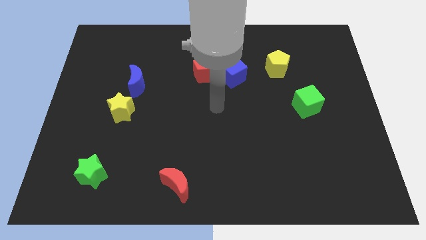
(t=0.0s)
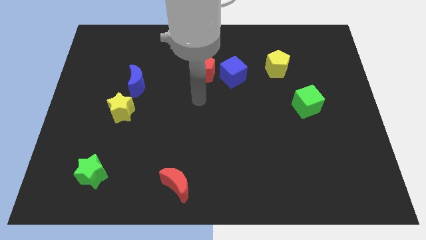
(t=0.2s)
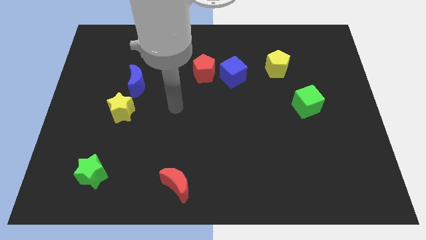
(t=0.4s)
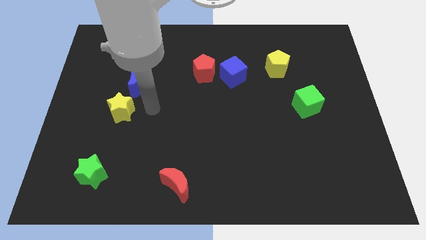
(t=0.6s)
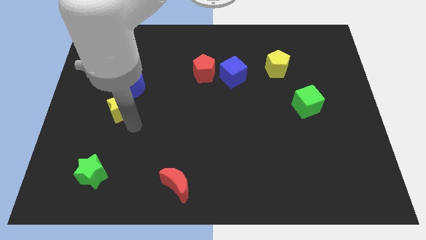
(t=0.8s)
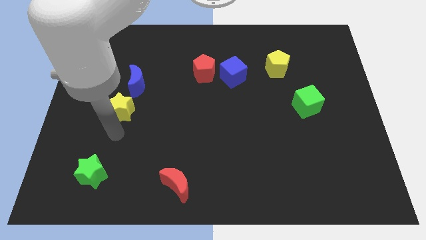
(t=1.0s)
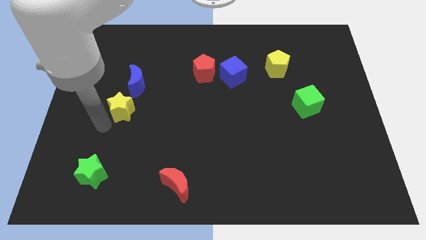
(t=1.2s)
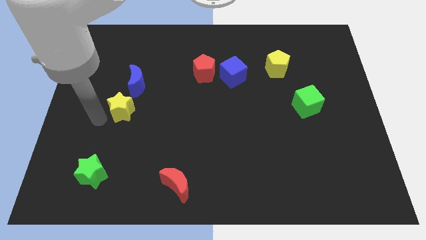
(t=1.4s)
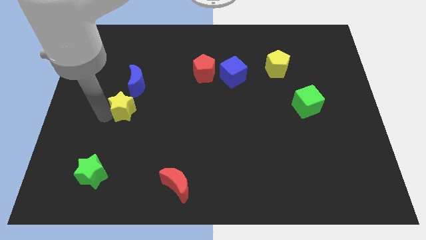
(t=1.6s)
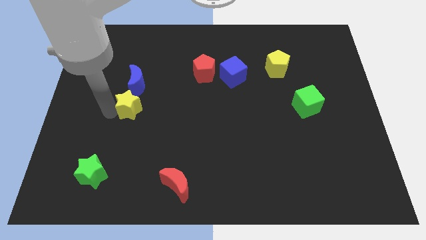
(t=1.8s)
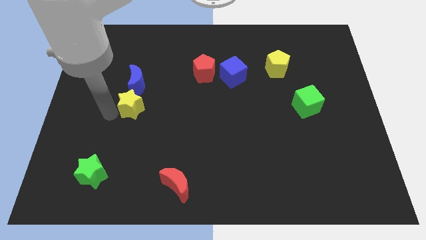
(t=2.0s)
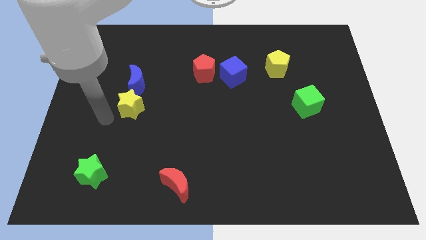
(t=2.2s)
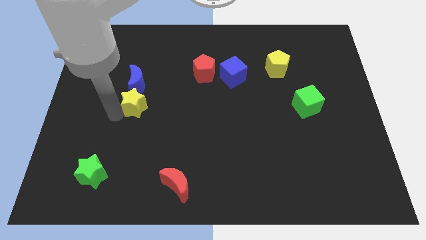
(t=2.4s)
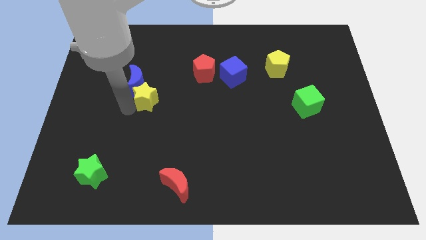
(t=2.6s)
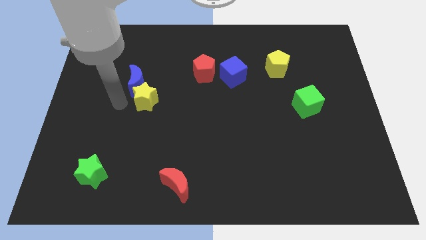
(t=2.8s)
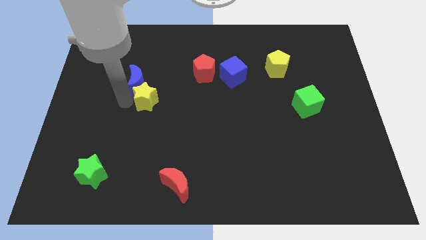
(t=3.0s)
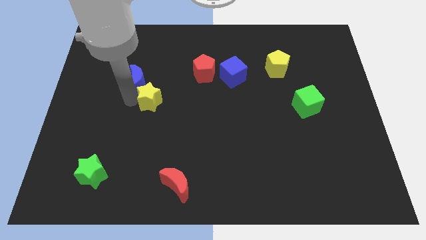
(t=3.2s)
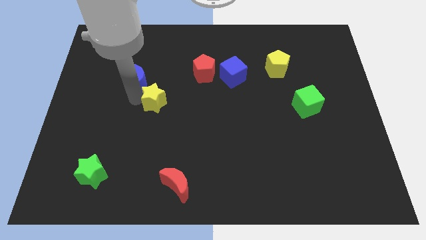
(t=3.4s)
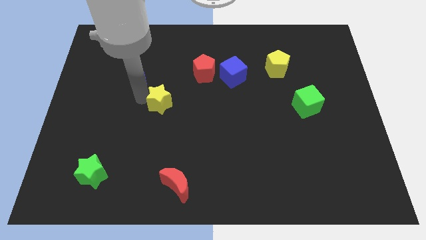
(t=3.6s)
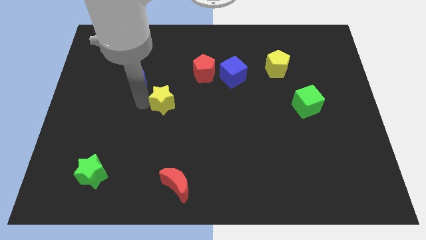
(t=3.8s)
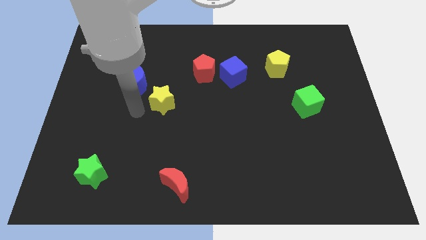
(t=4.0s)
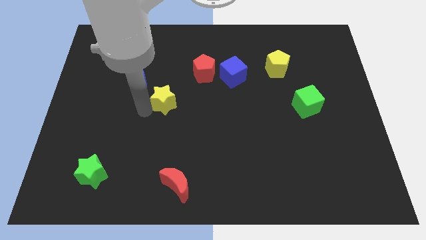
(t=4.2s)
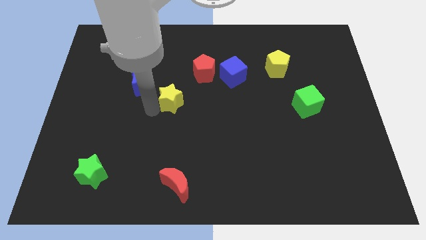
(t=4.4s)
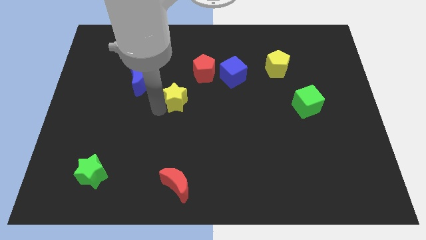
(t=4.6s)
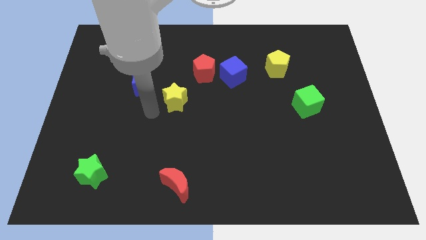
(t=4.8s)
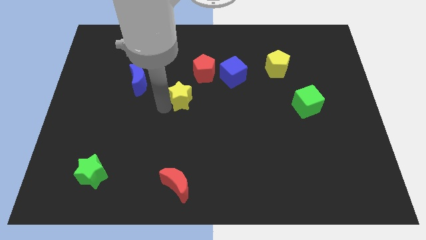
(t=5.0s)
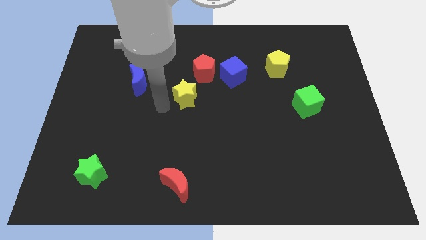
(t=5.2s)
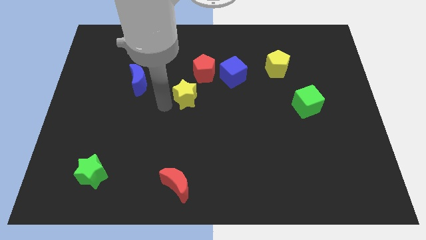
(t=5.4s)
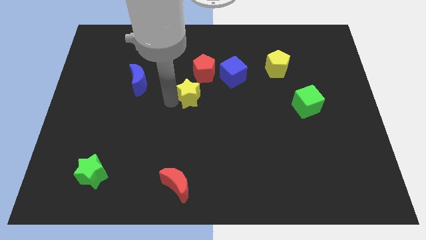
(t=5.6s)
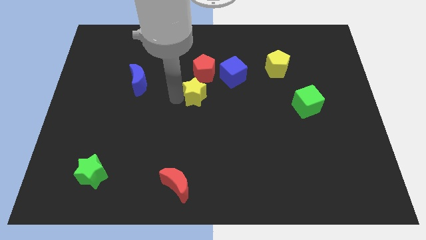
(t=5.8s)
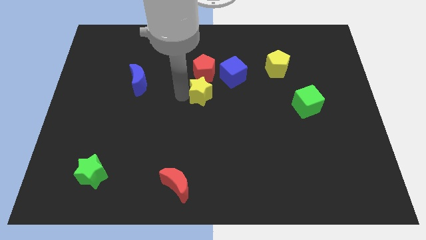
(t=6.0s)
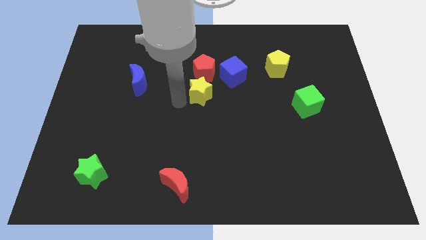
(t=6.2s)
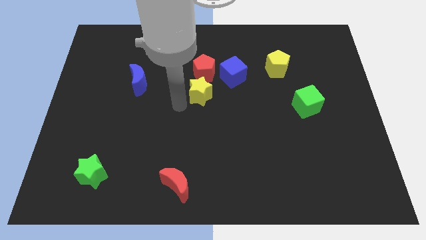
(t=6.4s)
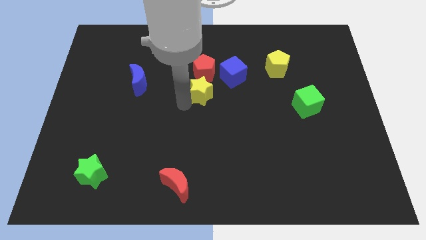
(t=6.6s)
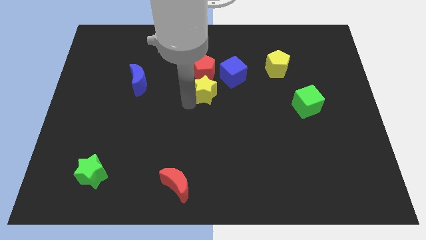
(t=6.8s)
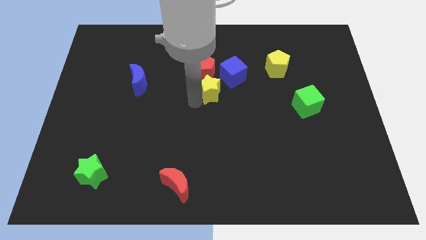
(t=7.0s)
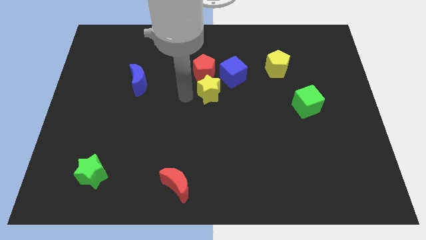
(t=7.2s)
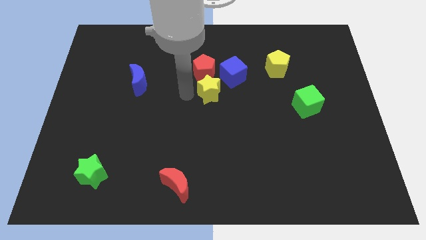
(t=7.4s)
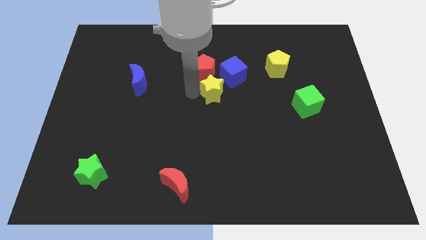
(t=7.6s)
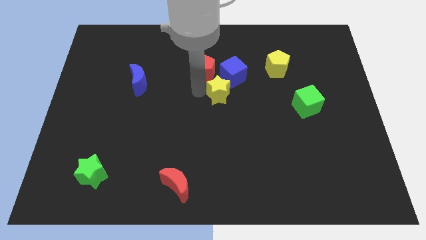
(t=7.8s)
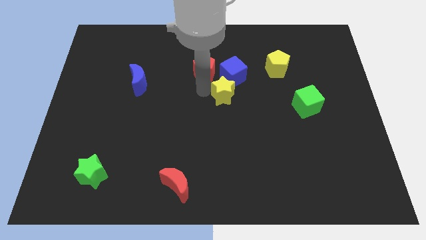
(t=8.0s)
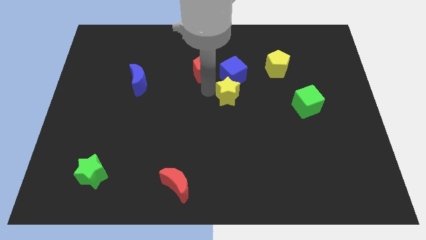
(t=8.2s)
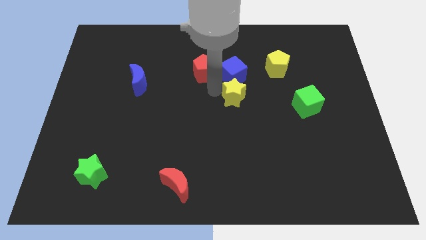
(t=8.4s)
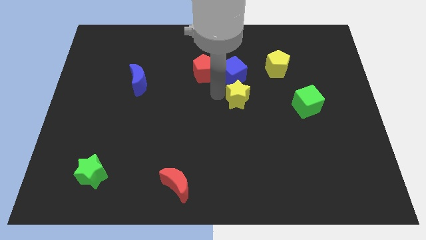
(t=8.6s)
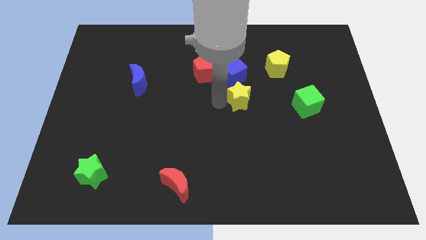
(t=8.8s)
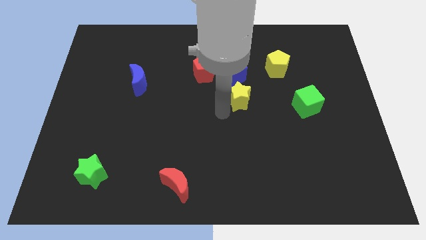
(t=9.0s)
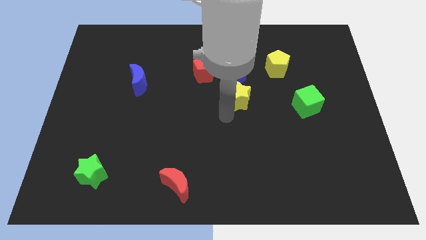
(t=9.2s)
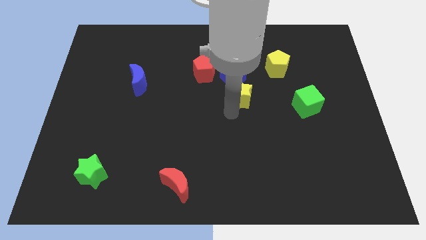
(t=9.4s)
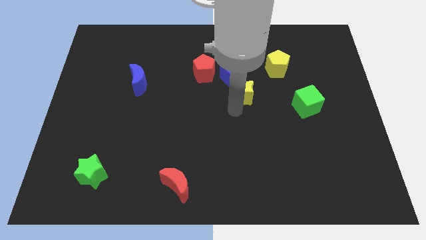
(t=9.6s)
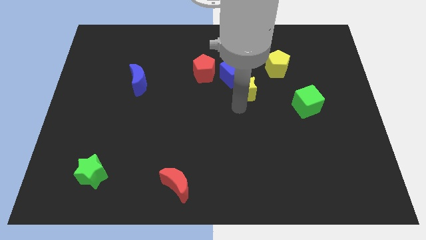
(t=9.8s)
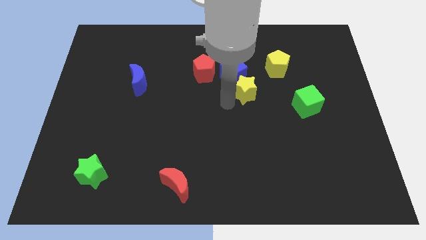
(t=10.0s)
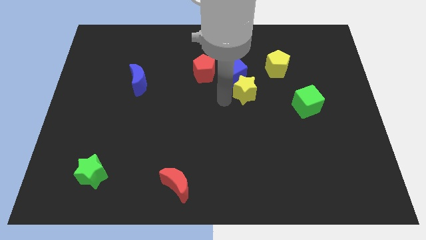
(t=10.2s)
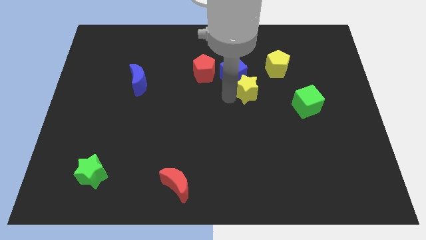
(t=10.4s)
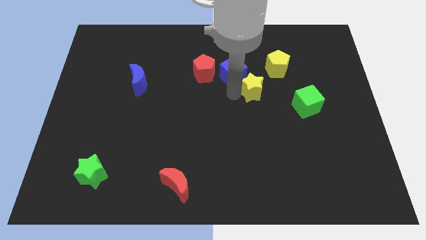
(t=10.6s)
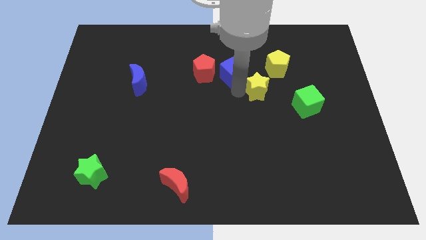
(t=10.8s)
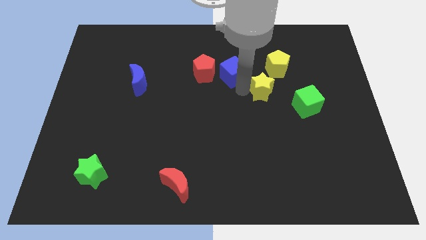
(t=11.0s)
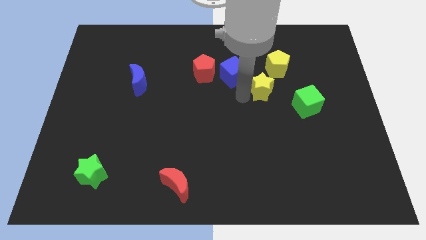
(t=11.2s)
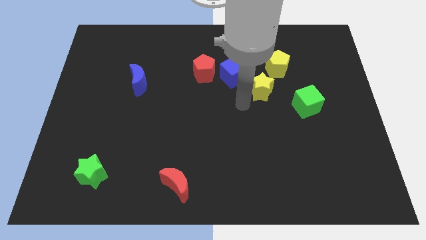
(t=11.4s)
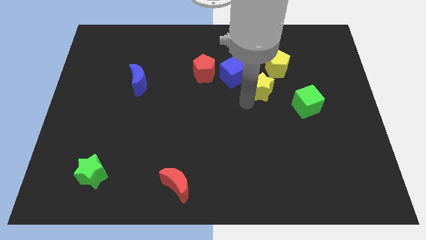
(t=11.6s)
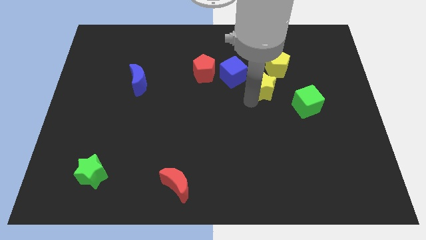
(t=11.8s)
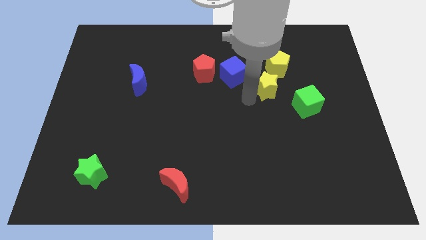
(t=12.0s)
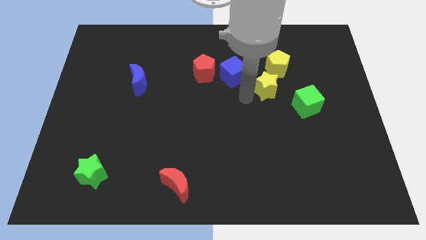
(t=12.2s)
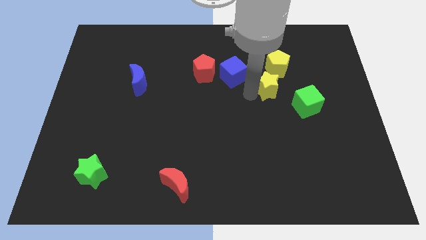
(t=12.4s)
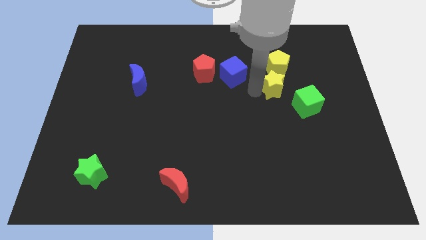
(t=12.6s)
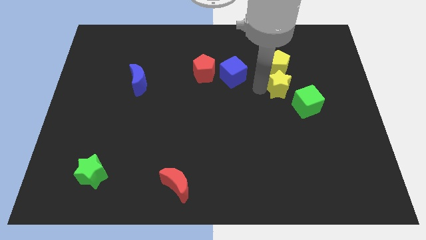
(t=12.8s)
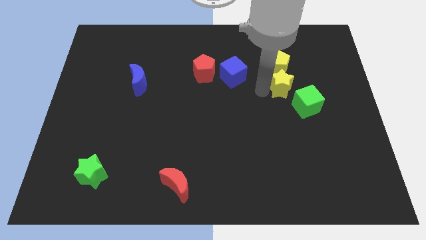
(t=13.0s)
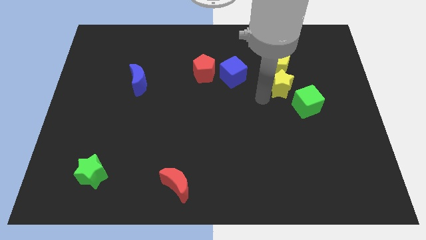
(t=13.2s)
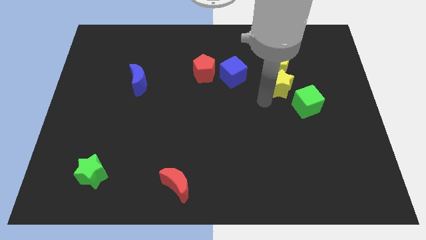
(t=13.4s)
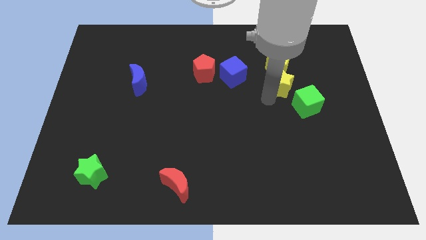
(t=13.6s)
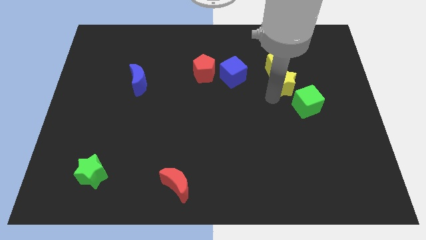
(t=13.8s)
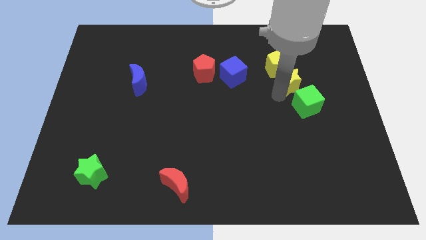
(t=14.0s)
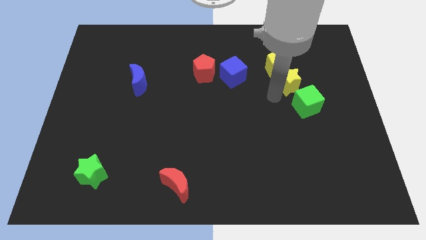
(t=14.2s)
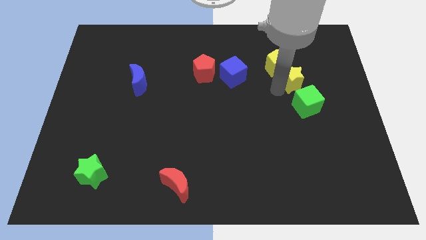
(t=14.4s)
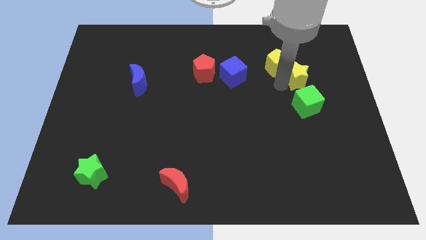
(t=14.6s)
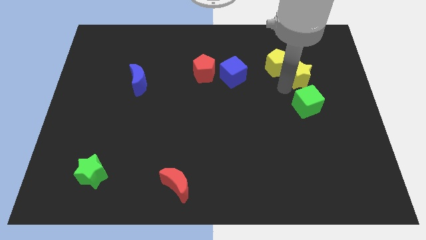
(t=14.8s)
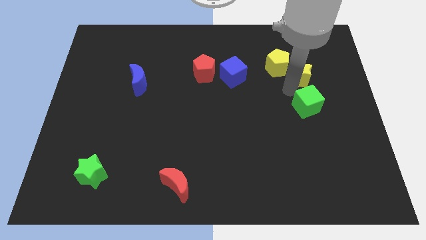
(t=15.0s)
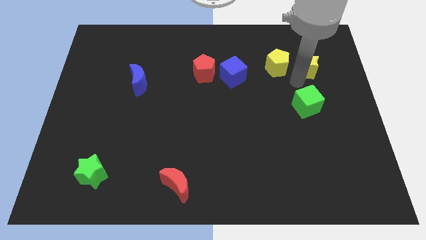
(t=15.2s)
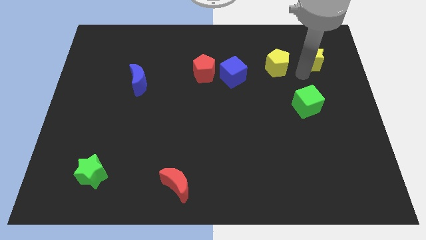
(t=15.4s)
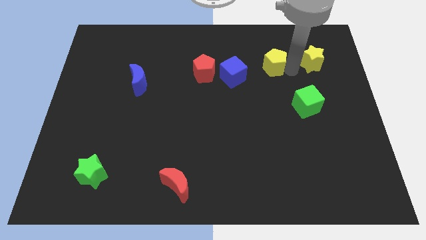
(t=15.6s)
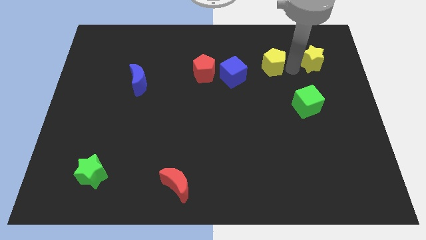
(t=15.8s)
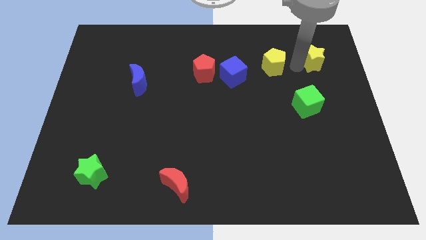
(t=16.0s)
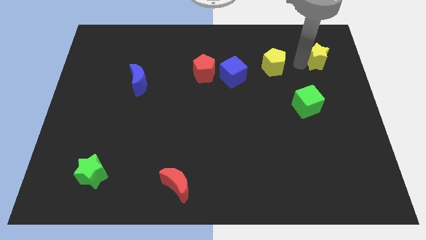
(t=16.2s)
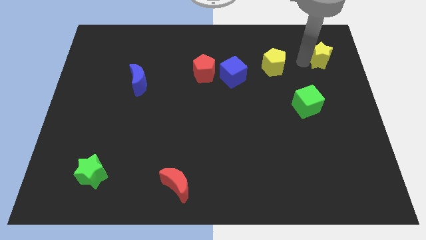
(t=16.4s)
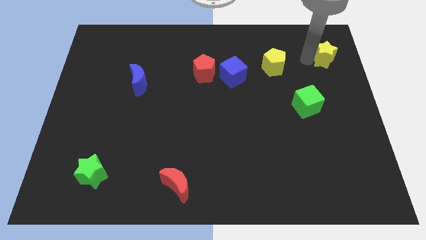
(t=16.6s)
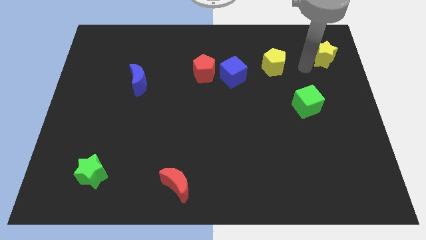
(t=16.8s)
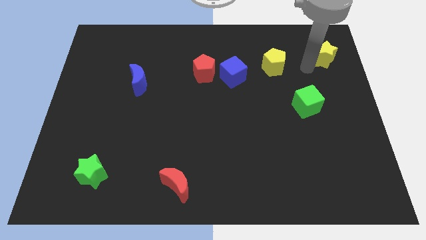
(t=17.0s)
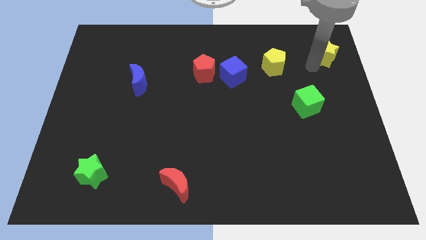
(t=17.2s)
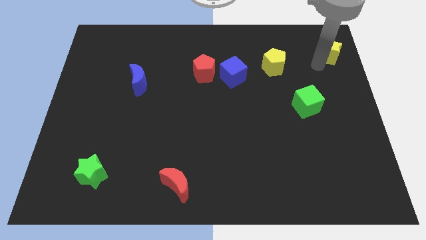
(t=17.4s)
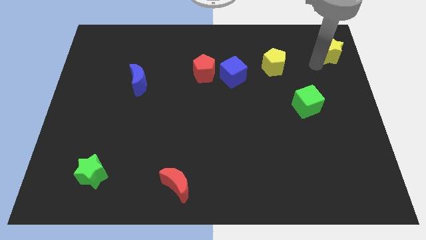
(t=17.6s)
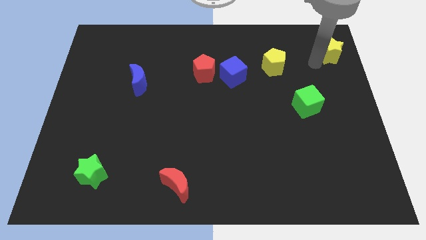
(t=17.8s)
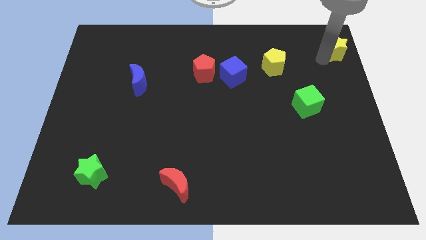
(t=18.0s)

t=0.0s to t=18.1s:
push the yellow star to the top right of the board
